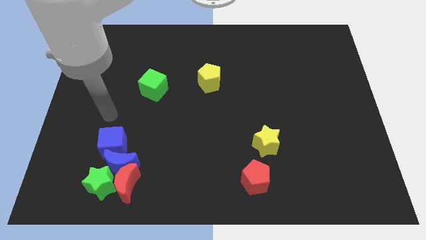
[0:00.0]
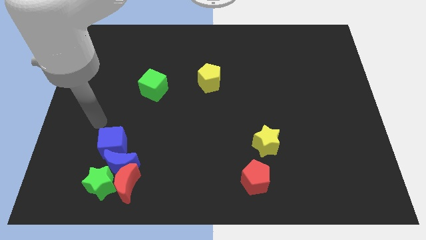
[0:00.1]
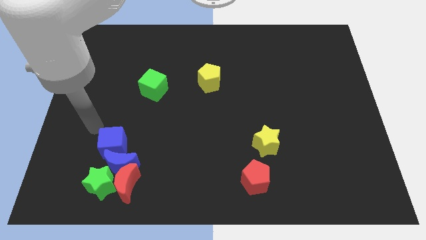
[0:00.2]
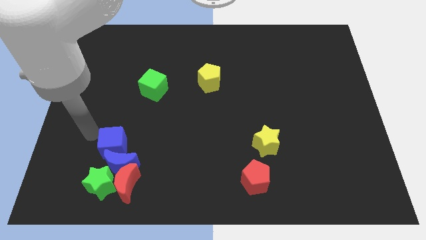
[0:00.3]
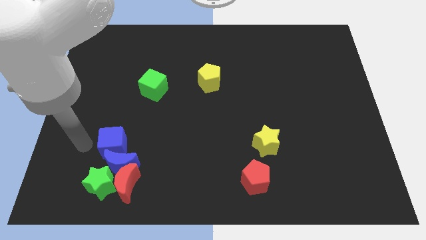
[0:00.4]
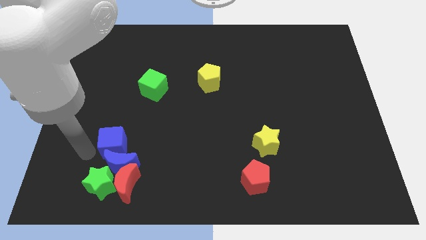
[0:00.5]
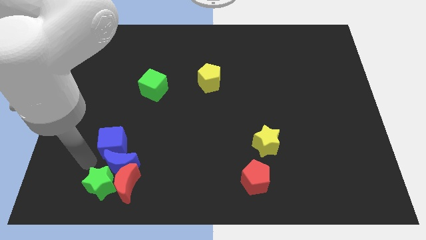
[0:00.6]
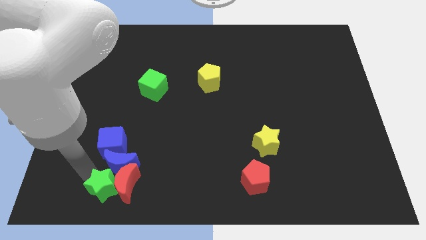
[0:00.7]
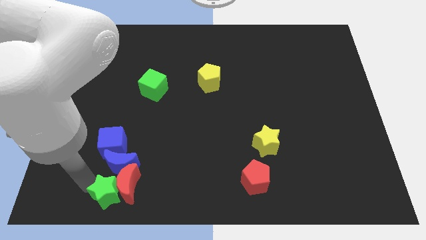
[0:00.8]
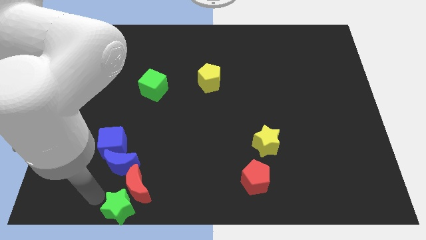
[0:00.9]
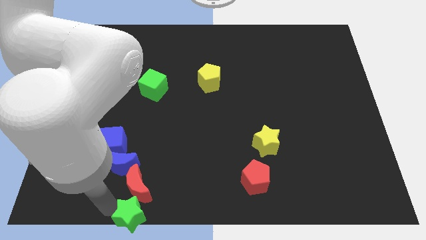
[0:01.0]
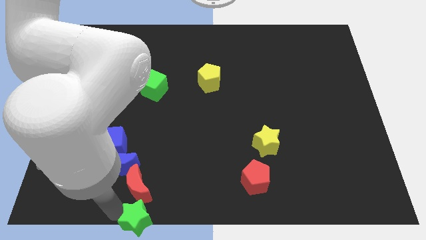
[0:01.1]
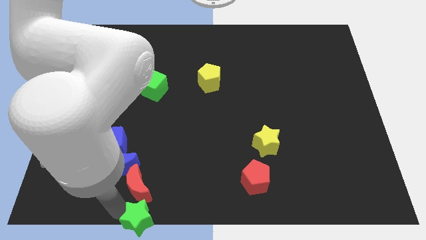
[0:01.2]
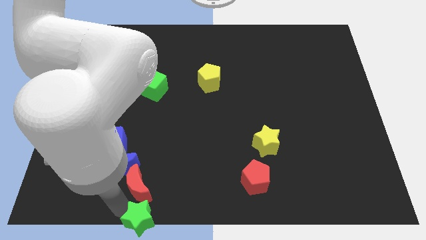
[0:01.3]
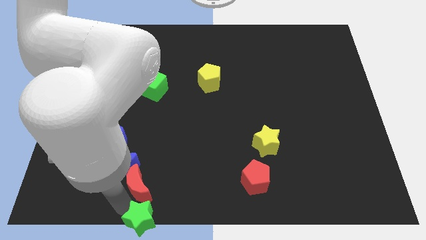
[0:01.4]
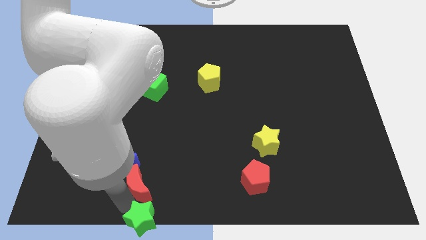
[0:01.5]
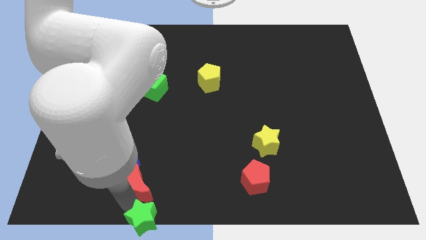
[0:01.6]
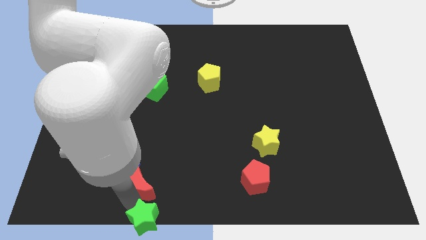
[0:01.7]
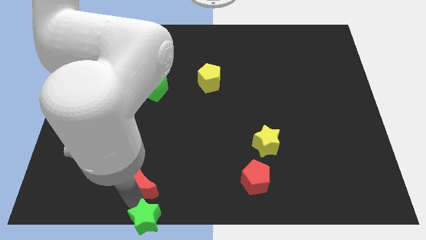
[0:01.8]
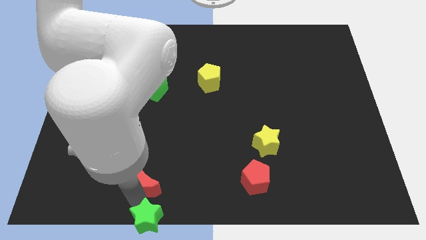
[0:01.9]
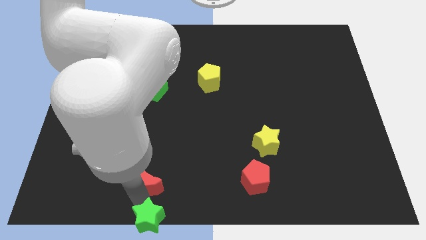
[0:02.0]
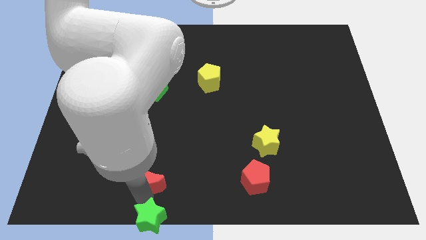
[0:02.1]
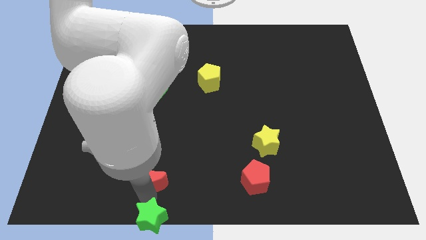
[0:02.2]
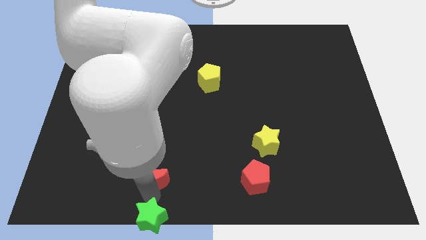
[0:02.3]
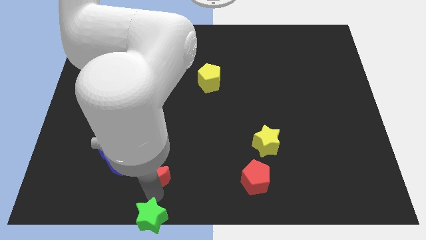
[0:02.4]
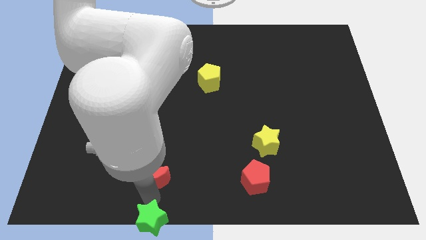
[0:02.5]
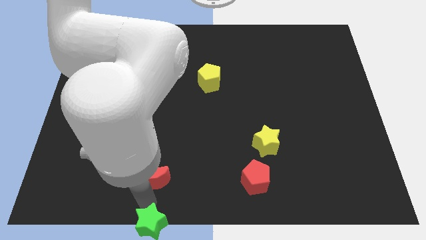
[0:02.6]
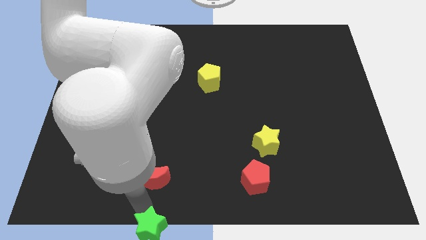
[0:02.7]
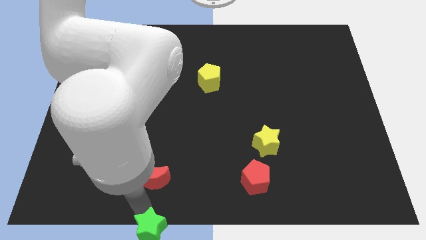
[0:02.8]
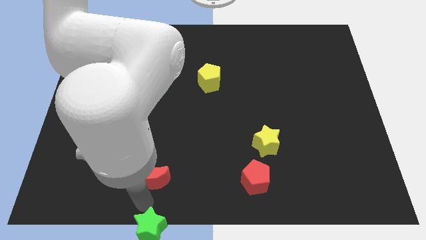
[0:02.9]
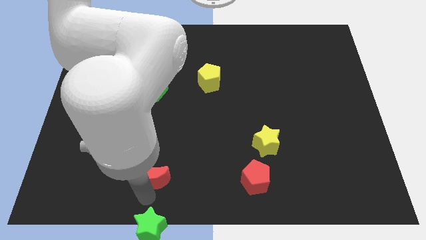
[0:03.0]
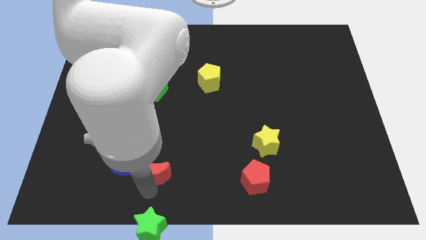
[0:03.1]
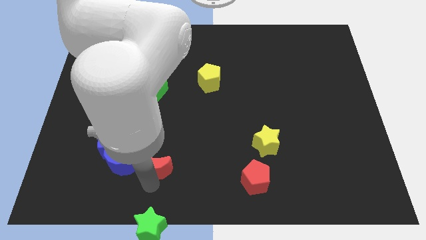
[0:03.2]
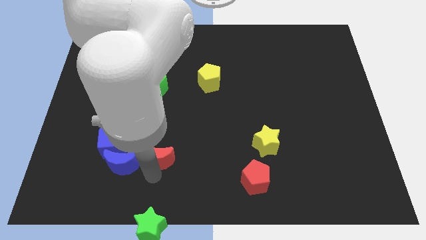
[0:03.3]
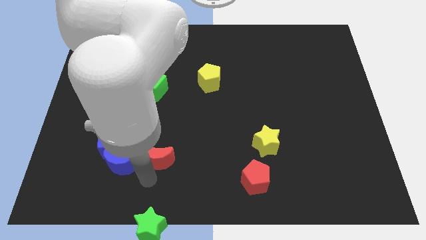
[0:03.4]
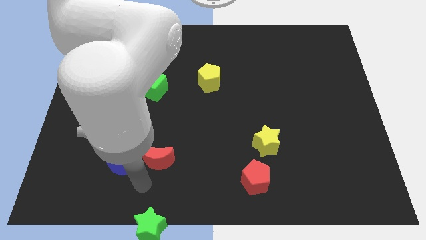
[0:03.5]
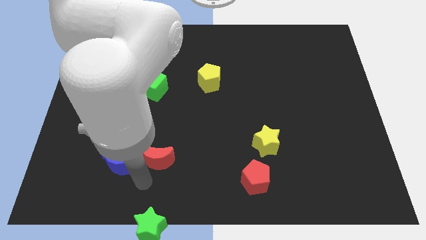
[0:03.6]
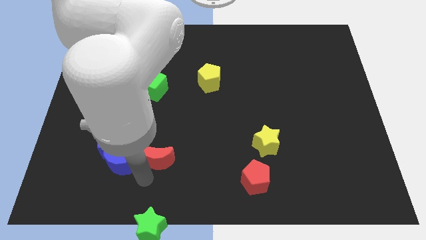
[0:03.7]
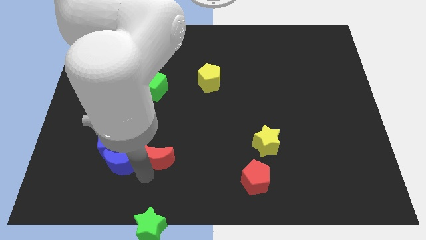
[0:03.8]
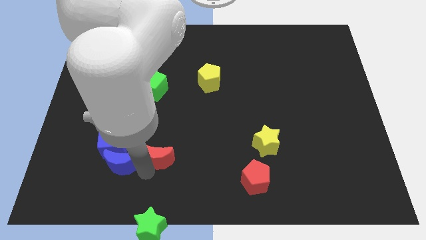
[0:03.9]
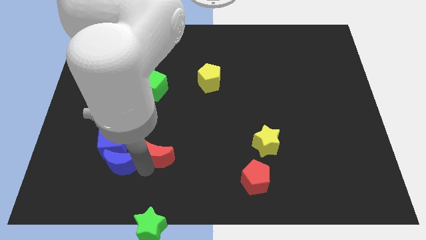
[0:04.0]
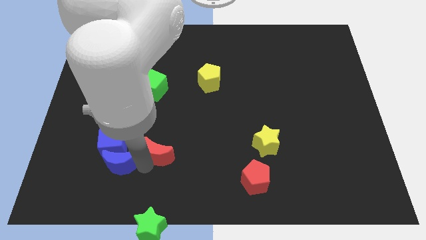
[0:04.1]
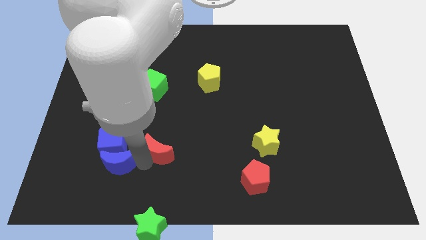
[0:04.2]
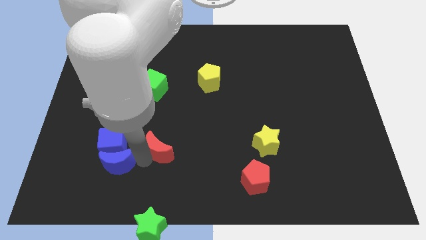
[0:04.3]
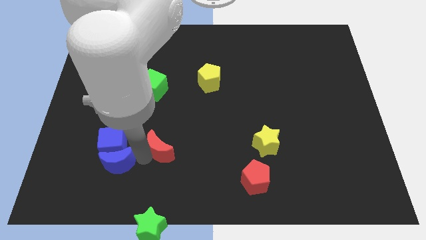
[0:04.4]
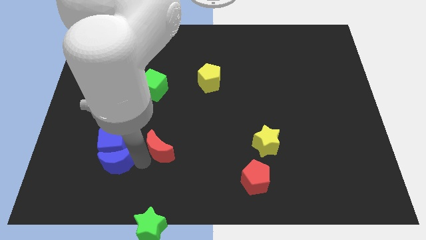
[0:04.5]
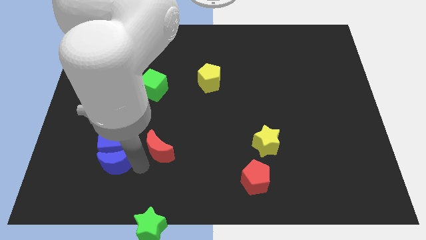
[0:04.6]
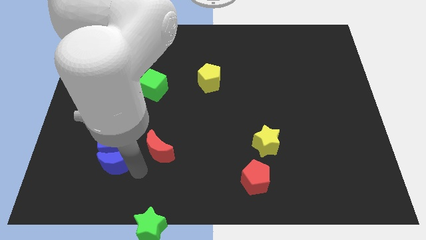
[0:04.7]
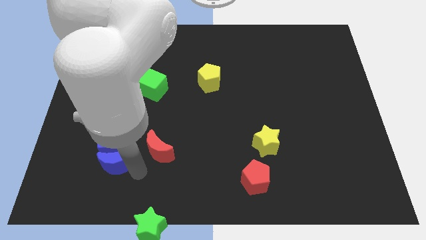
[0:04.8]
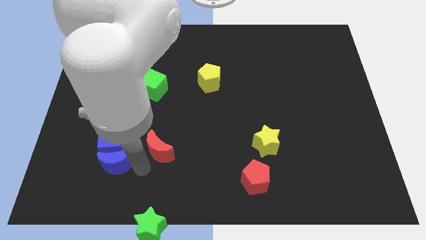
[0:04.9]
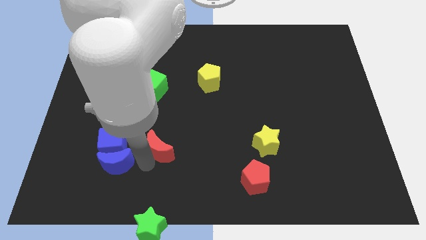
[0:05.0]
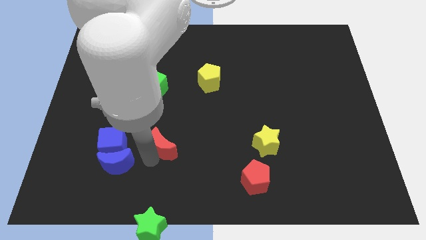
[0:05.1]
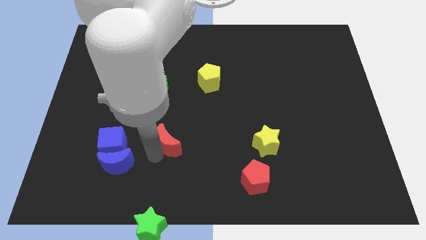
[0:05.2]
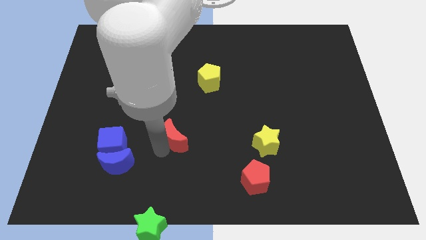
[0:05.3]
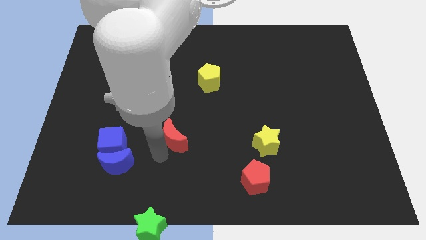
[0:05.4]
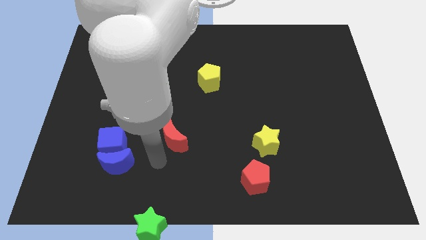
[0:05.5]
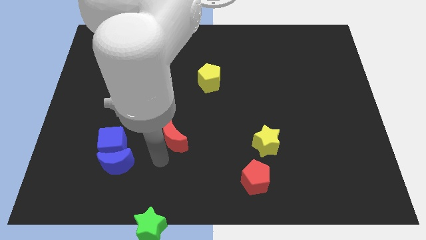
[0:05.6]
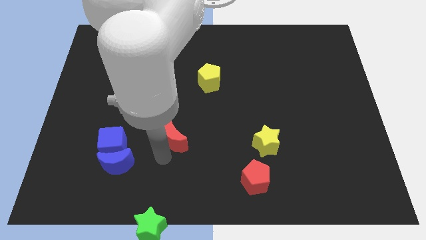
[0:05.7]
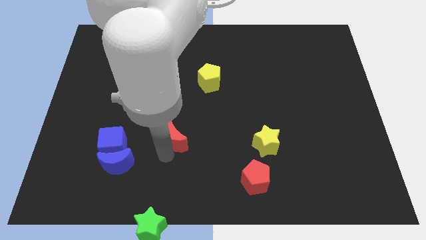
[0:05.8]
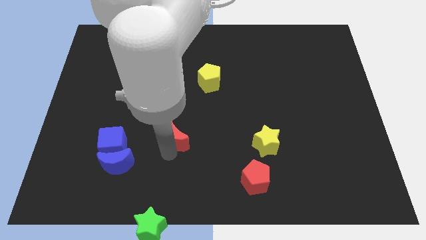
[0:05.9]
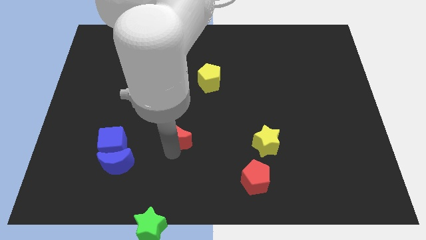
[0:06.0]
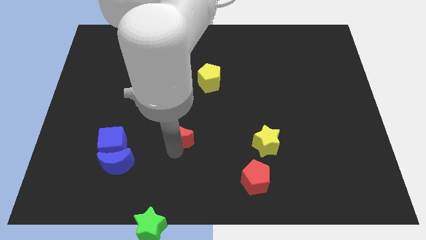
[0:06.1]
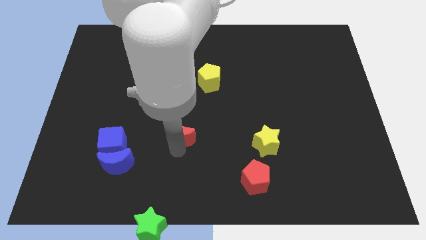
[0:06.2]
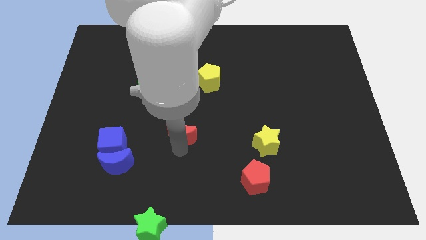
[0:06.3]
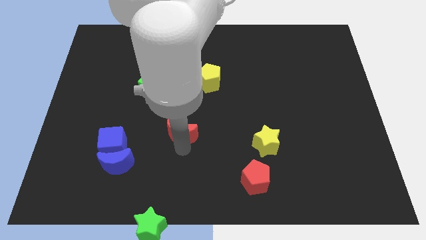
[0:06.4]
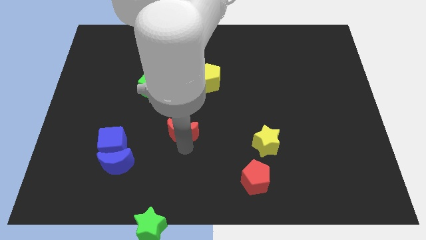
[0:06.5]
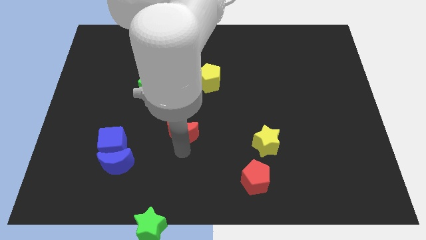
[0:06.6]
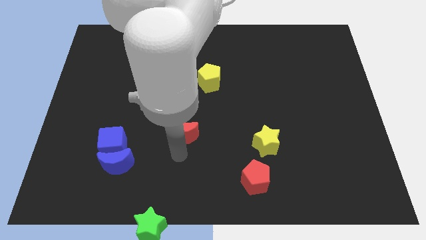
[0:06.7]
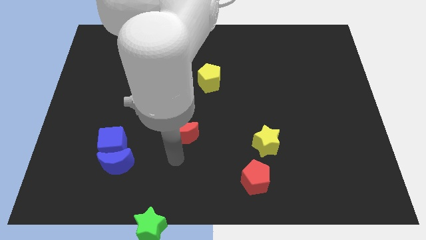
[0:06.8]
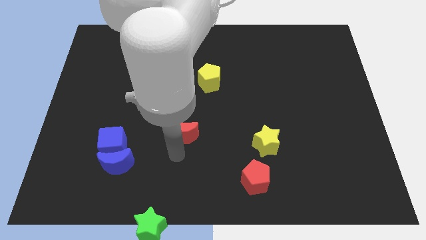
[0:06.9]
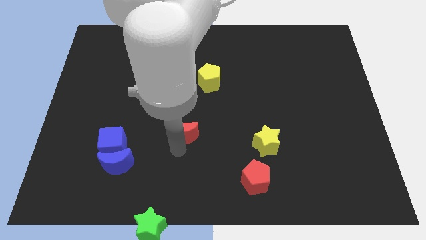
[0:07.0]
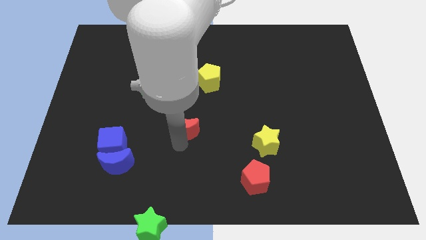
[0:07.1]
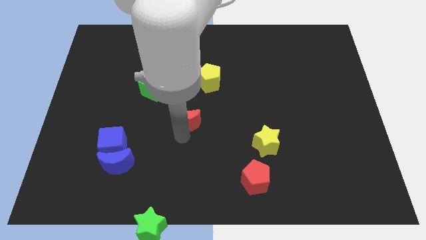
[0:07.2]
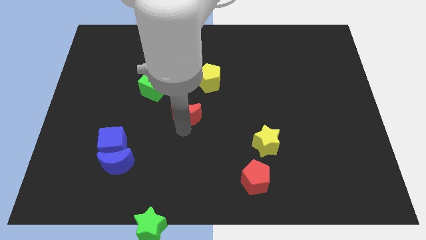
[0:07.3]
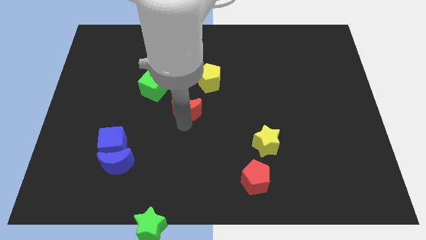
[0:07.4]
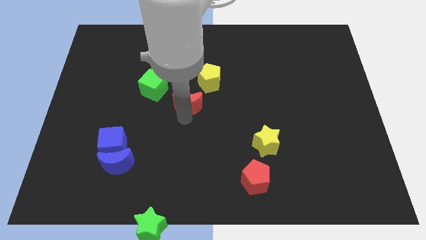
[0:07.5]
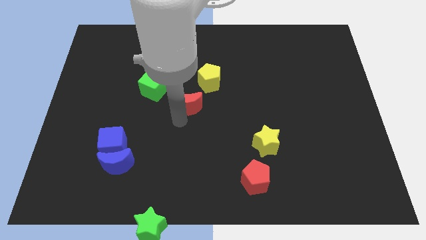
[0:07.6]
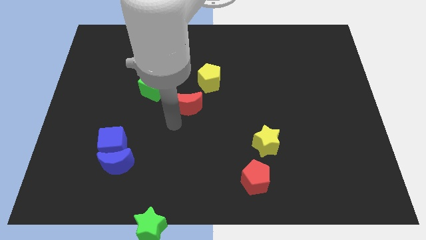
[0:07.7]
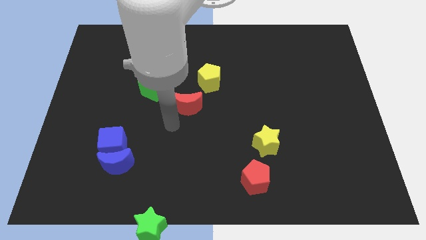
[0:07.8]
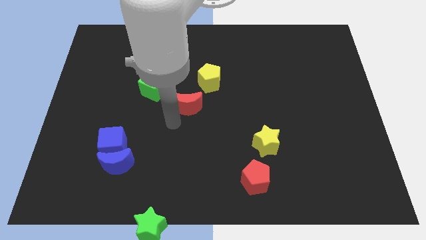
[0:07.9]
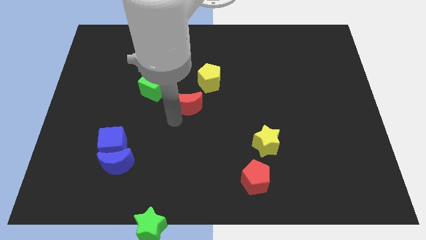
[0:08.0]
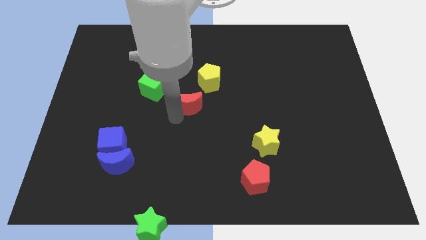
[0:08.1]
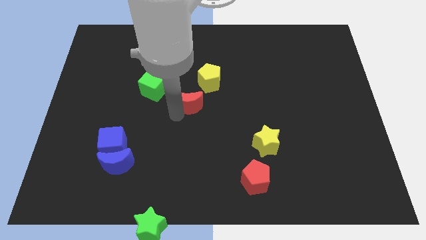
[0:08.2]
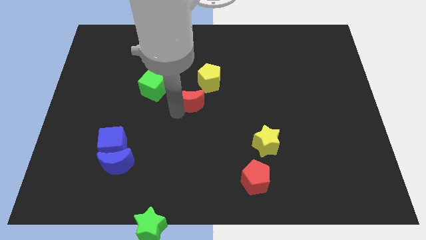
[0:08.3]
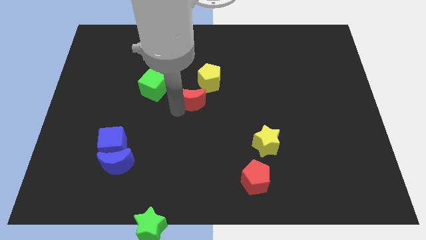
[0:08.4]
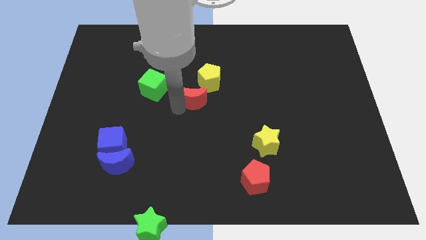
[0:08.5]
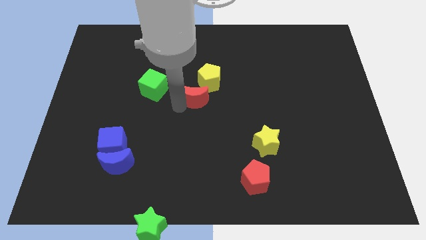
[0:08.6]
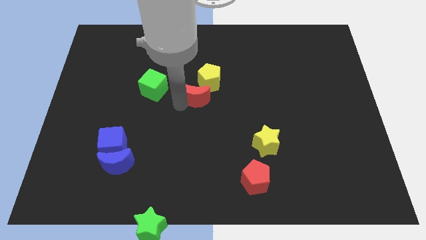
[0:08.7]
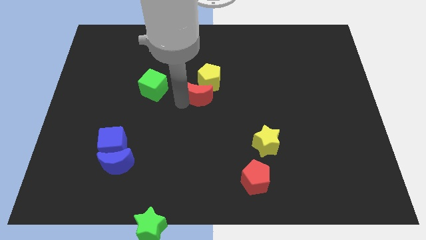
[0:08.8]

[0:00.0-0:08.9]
slide the red moon next to the yellow pentagon
